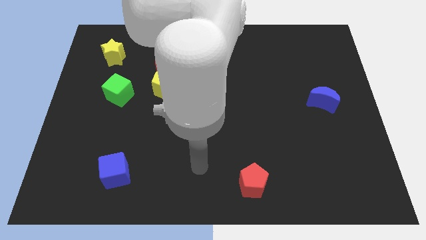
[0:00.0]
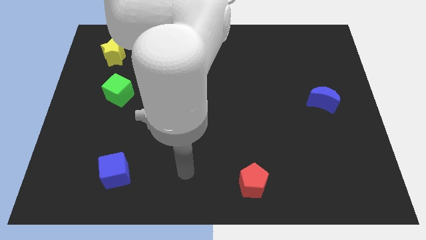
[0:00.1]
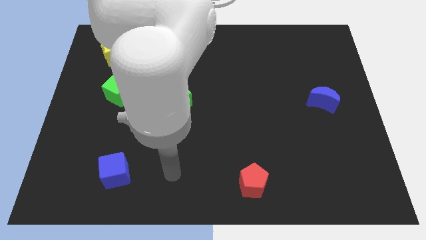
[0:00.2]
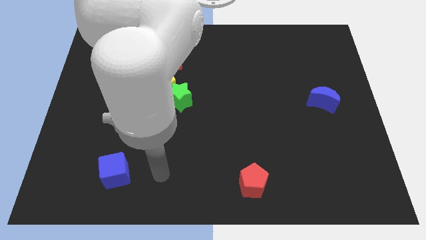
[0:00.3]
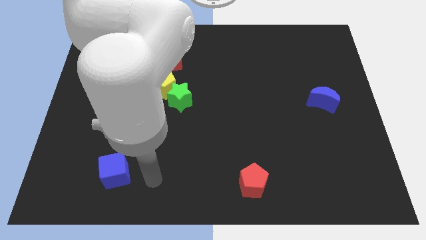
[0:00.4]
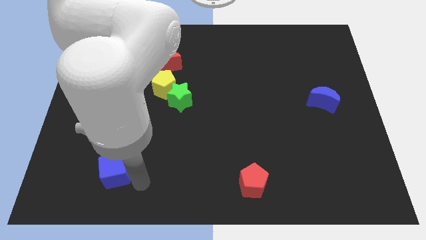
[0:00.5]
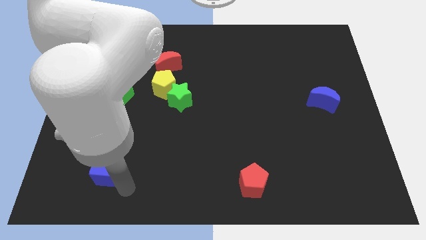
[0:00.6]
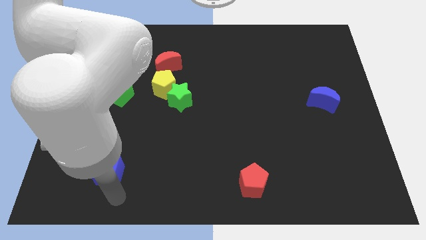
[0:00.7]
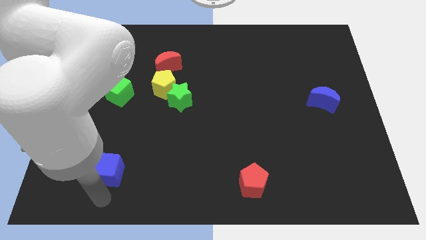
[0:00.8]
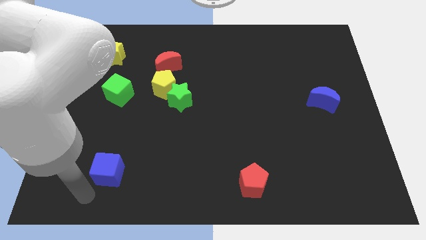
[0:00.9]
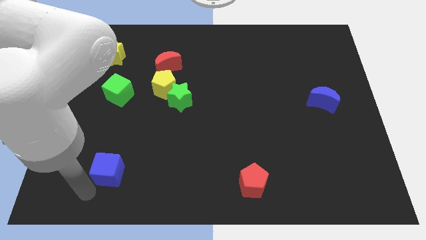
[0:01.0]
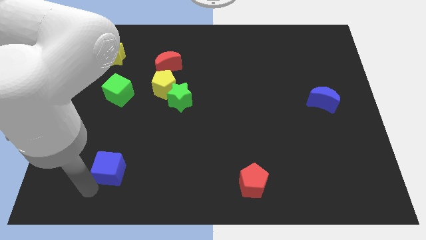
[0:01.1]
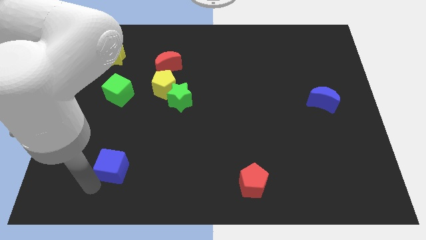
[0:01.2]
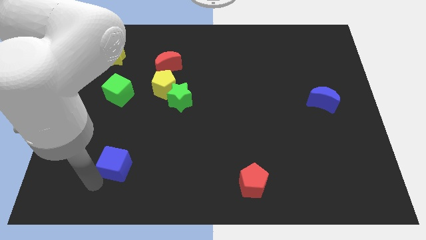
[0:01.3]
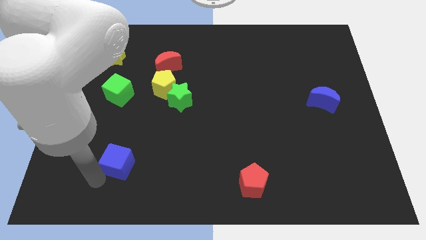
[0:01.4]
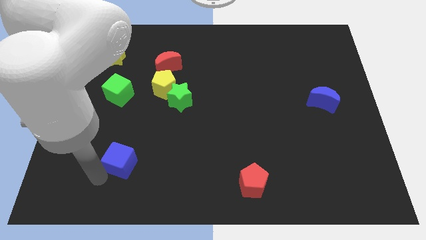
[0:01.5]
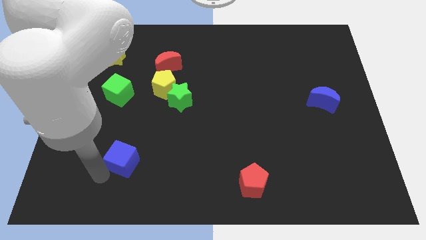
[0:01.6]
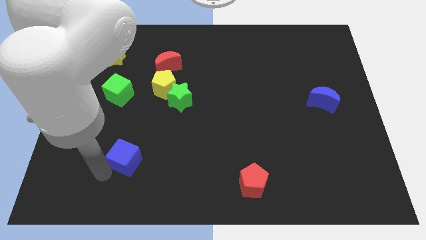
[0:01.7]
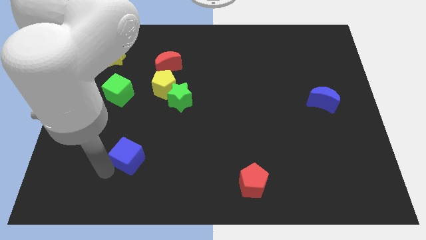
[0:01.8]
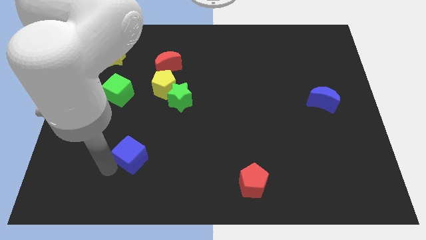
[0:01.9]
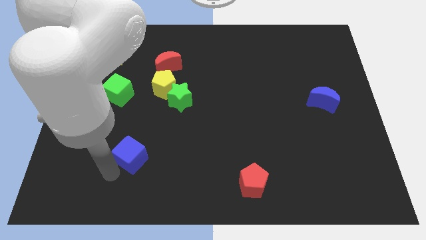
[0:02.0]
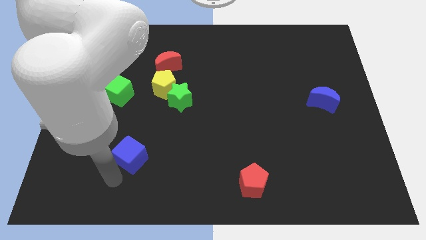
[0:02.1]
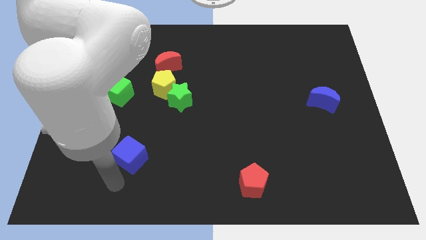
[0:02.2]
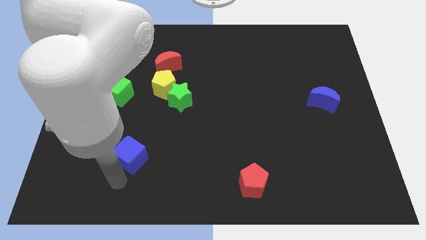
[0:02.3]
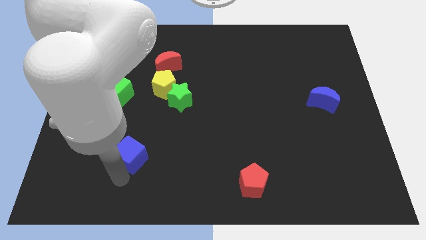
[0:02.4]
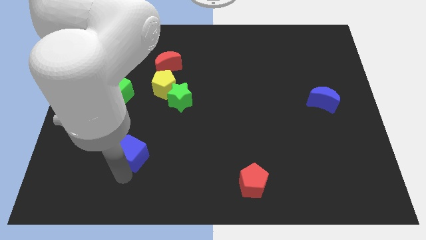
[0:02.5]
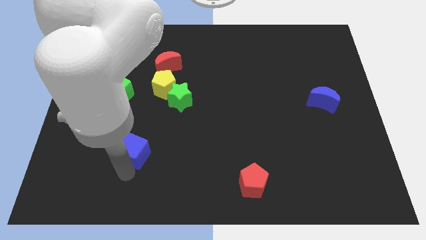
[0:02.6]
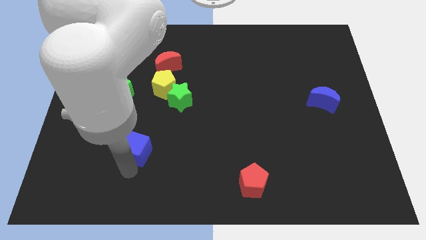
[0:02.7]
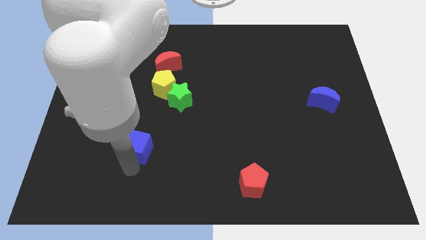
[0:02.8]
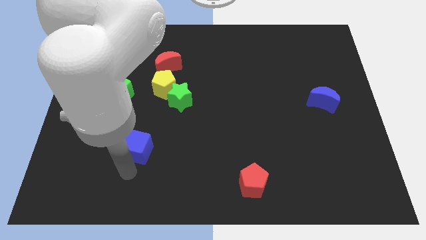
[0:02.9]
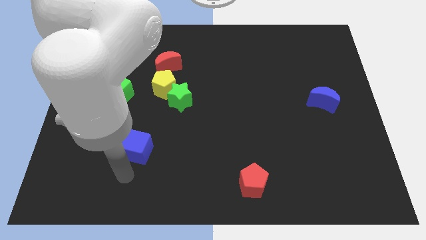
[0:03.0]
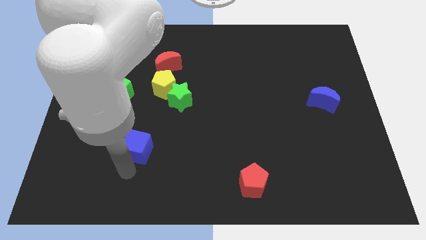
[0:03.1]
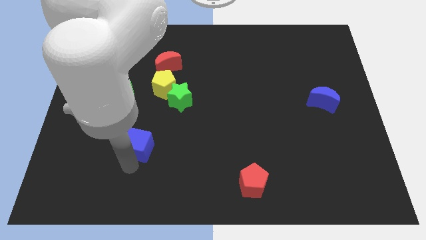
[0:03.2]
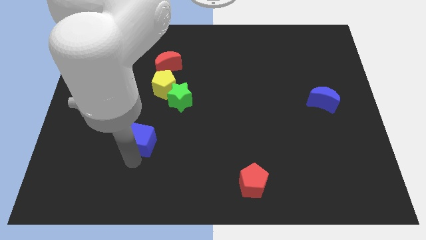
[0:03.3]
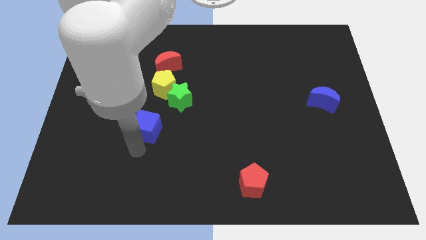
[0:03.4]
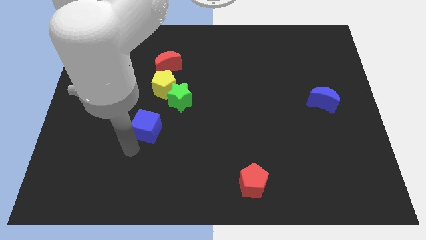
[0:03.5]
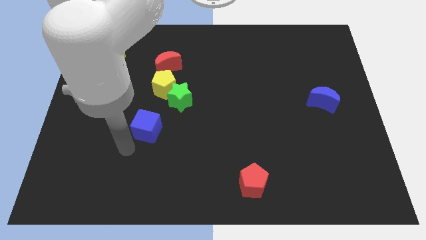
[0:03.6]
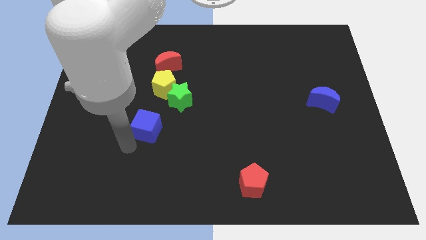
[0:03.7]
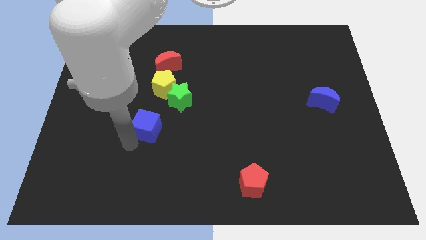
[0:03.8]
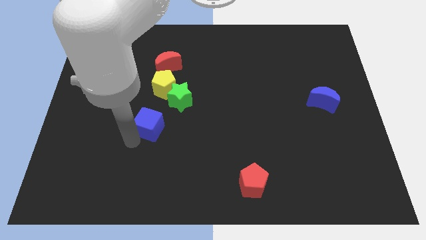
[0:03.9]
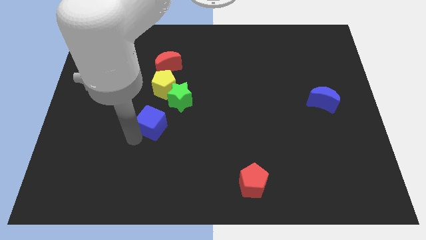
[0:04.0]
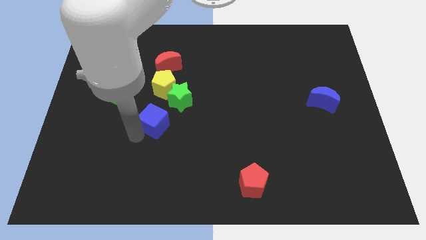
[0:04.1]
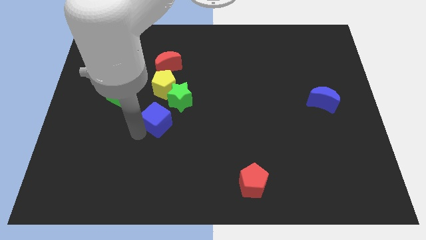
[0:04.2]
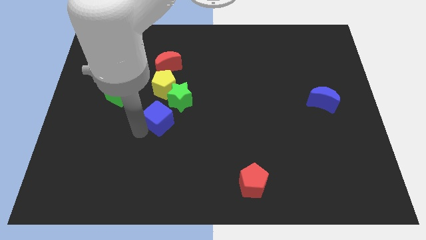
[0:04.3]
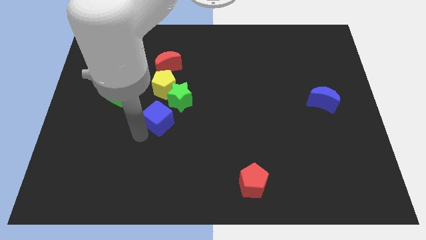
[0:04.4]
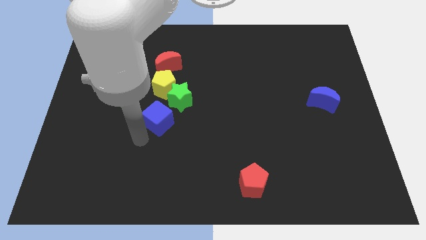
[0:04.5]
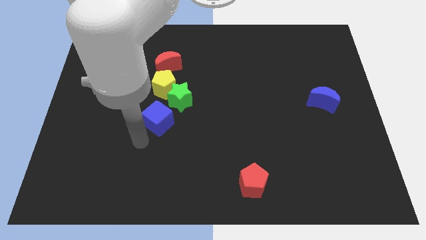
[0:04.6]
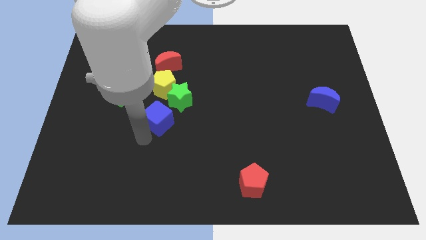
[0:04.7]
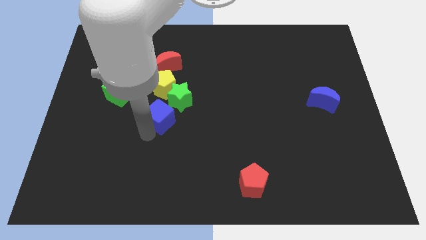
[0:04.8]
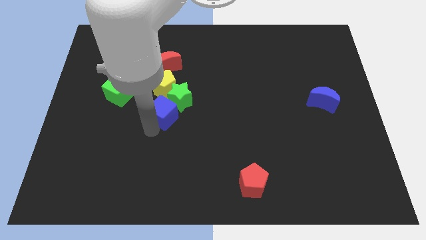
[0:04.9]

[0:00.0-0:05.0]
push the blue cube towards the green star
